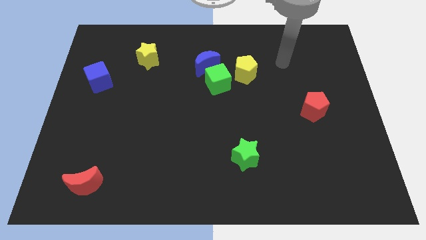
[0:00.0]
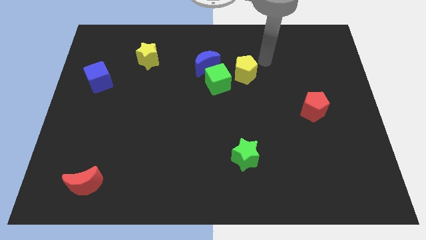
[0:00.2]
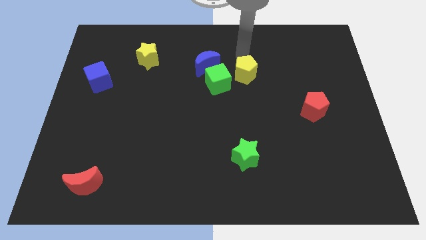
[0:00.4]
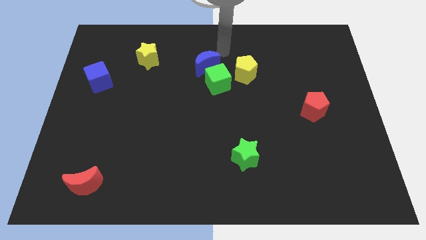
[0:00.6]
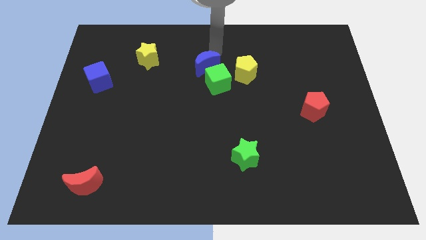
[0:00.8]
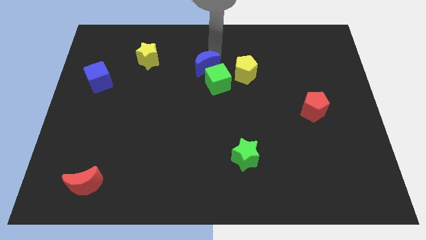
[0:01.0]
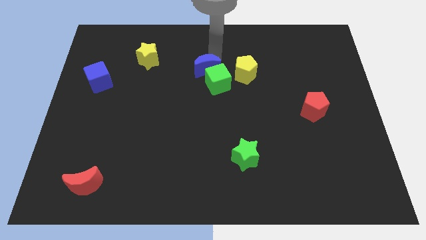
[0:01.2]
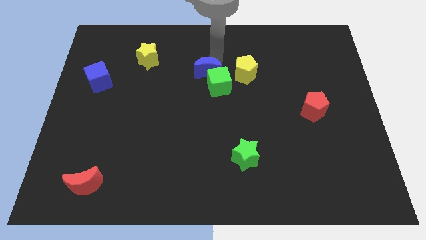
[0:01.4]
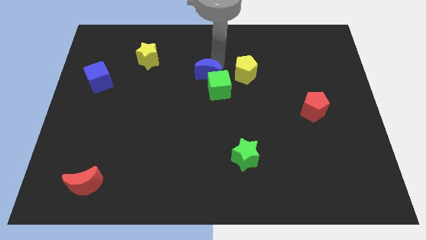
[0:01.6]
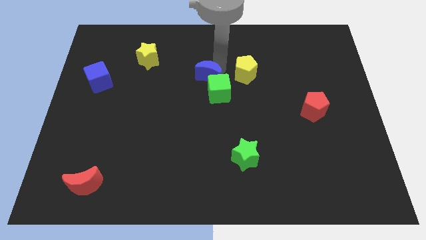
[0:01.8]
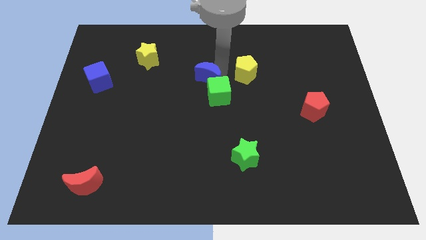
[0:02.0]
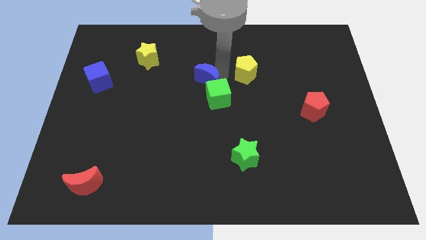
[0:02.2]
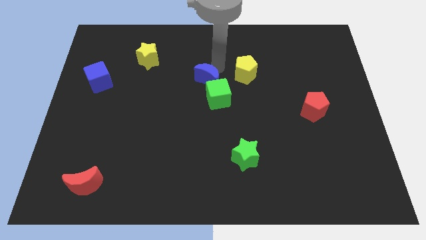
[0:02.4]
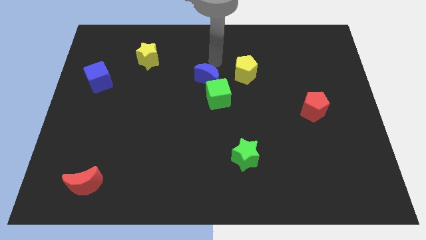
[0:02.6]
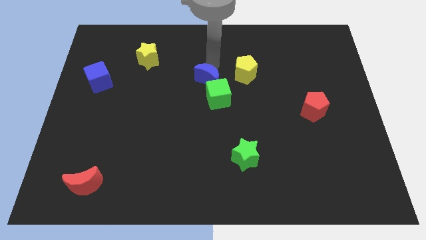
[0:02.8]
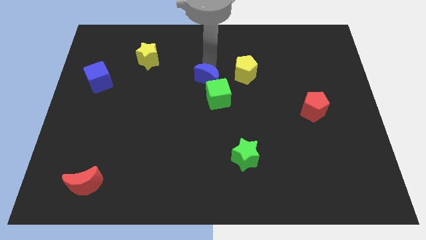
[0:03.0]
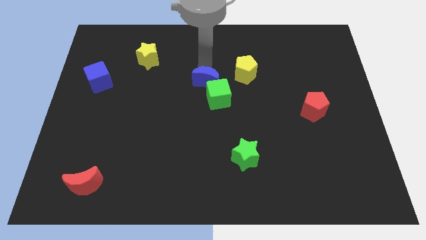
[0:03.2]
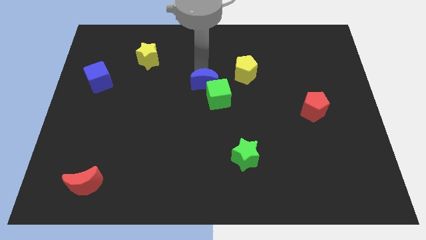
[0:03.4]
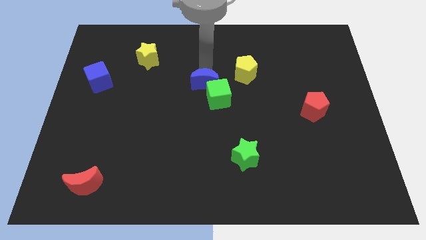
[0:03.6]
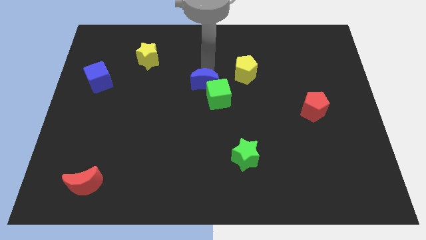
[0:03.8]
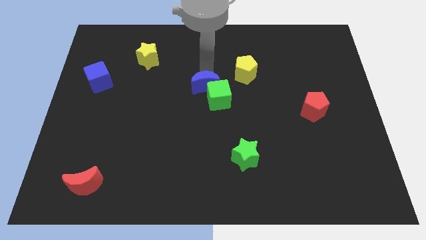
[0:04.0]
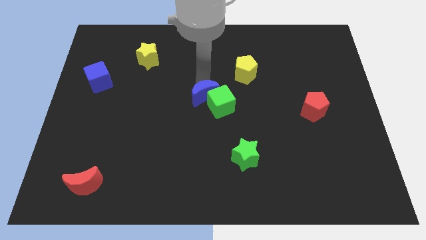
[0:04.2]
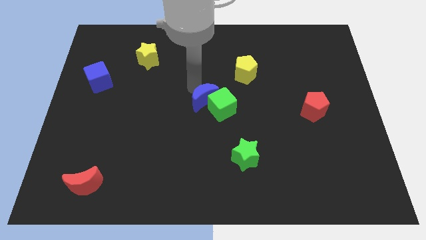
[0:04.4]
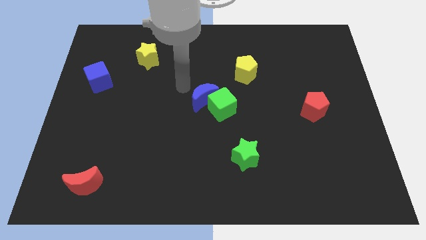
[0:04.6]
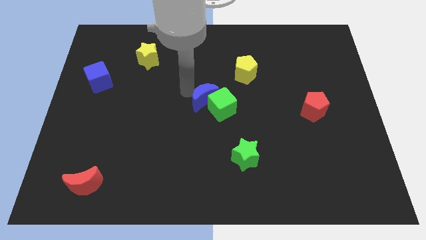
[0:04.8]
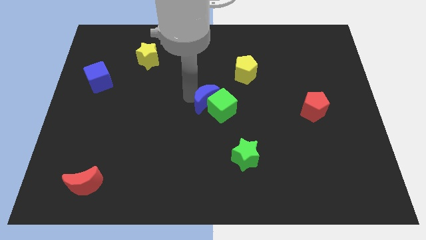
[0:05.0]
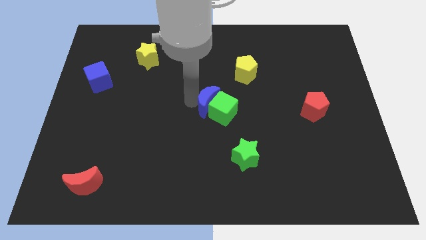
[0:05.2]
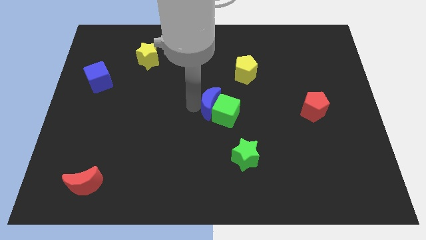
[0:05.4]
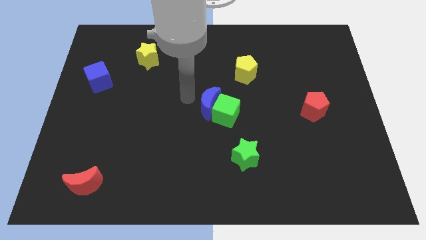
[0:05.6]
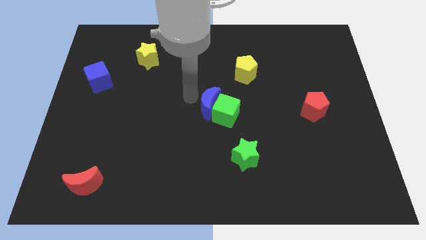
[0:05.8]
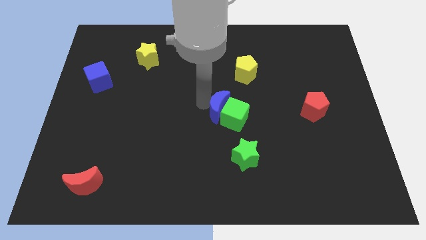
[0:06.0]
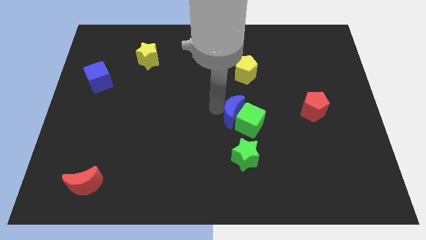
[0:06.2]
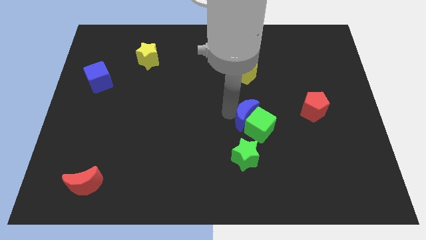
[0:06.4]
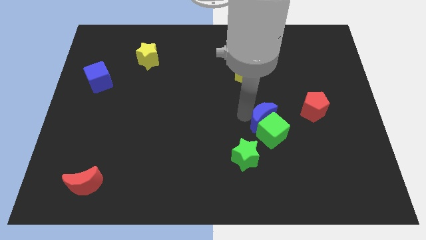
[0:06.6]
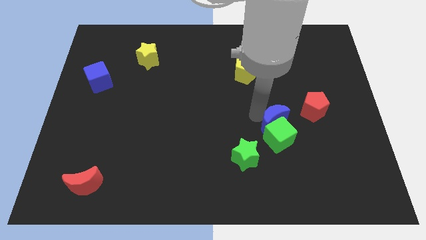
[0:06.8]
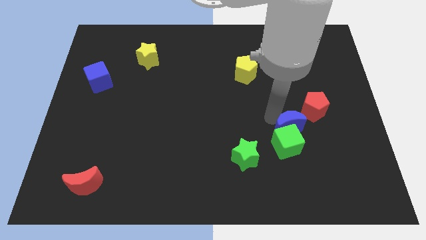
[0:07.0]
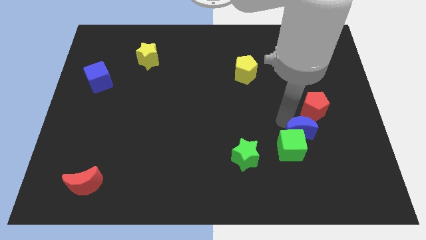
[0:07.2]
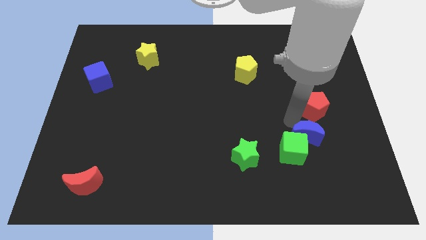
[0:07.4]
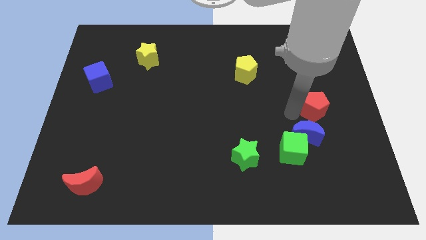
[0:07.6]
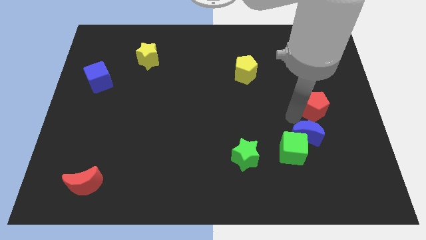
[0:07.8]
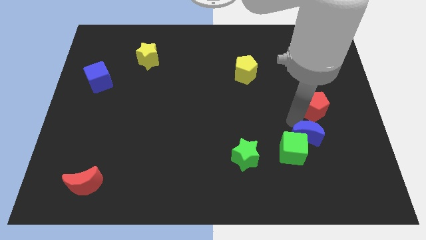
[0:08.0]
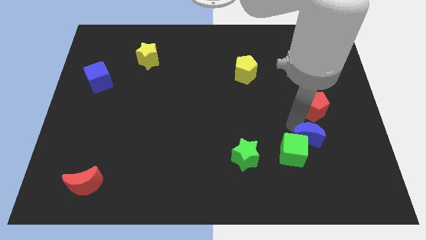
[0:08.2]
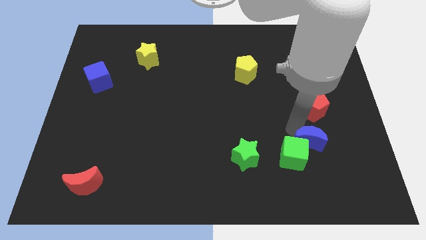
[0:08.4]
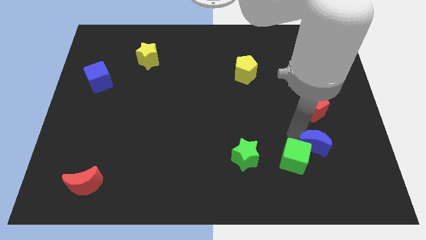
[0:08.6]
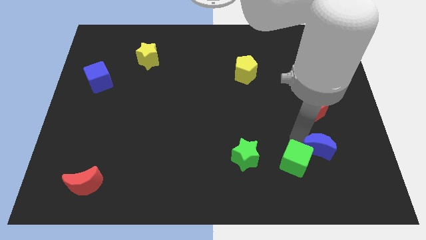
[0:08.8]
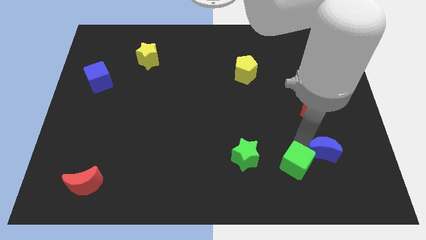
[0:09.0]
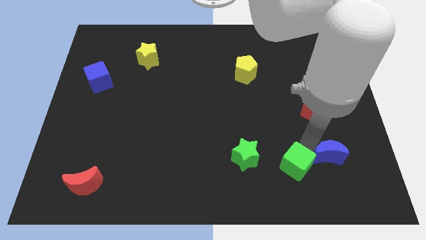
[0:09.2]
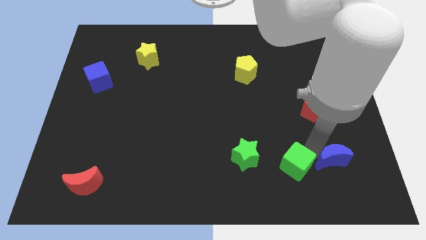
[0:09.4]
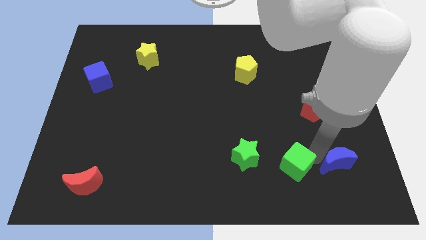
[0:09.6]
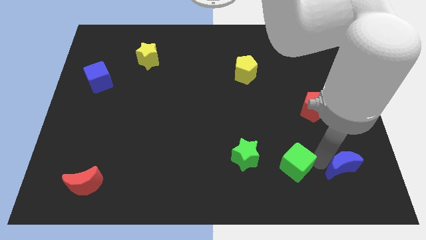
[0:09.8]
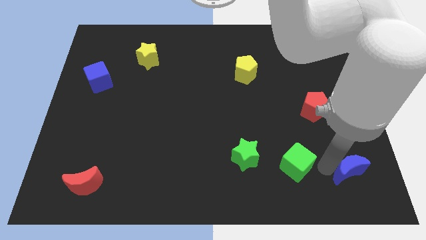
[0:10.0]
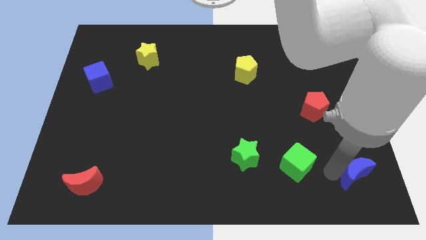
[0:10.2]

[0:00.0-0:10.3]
push the blue moon to the bottom right

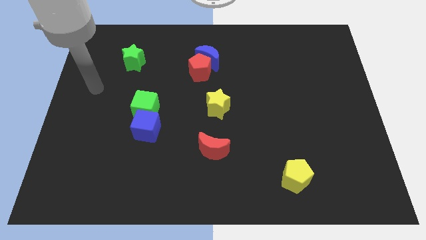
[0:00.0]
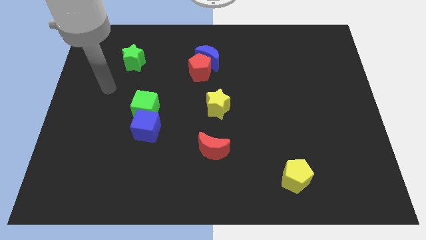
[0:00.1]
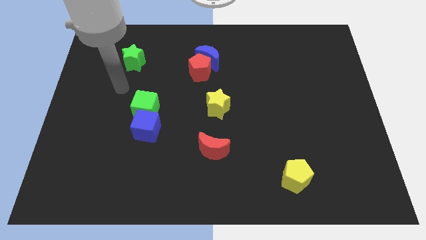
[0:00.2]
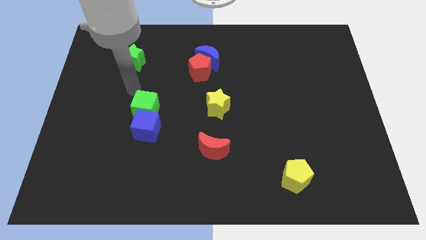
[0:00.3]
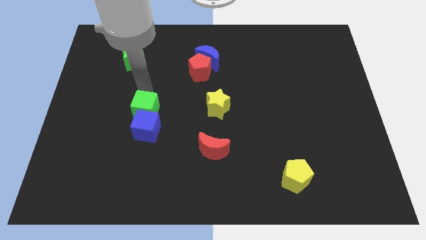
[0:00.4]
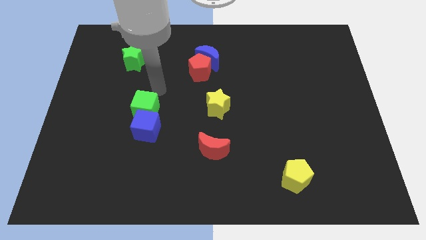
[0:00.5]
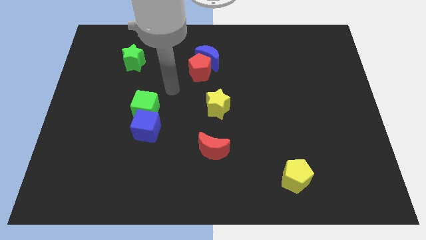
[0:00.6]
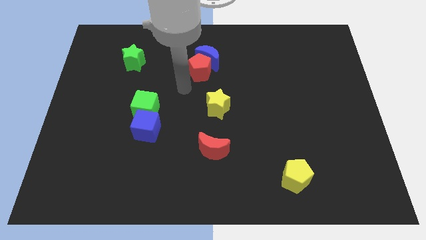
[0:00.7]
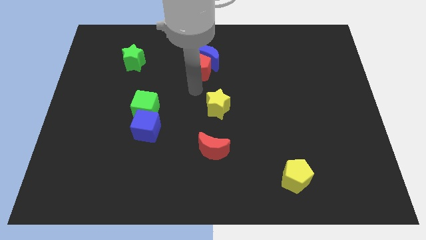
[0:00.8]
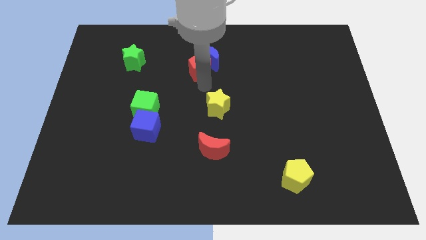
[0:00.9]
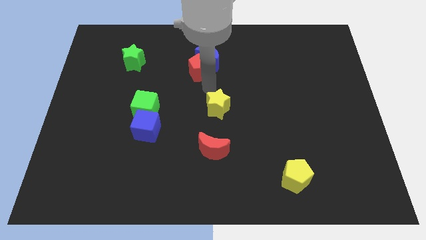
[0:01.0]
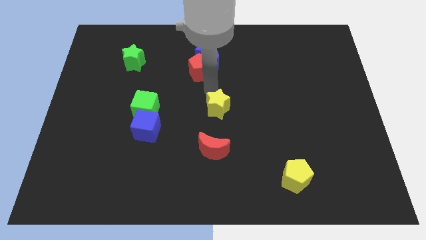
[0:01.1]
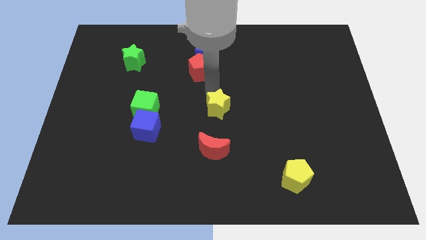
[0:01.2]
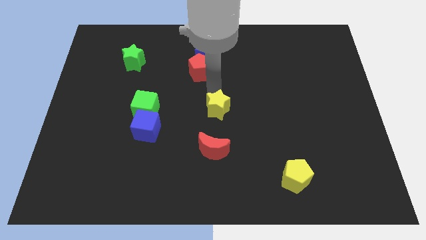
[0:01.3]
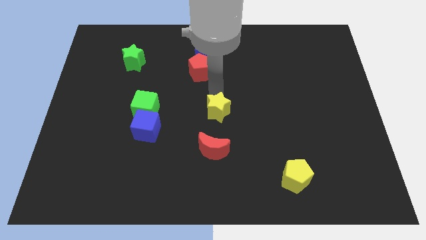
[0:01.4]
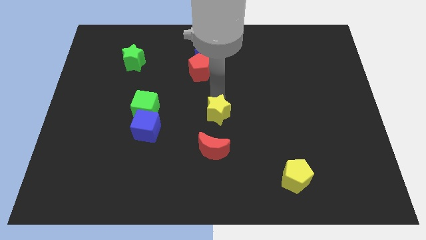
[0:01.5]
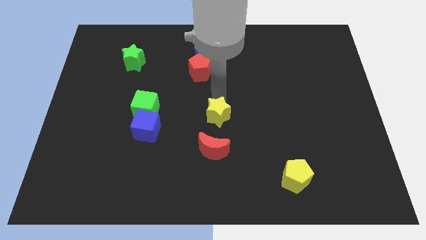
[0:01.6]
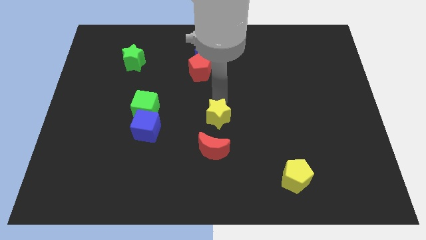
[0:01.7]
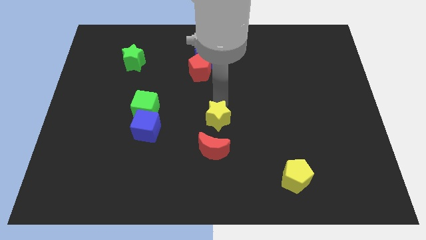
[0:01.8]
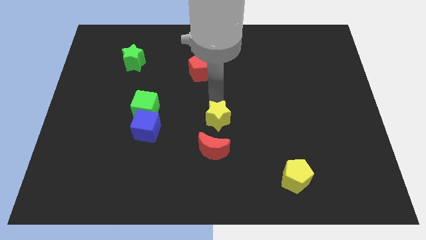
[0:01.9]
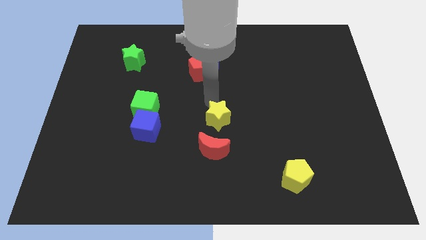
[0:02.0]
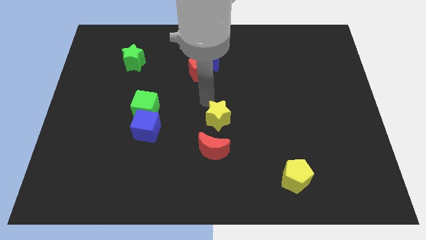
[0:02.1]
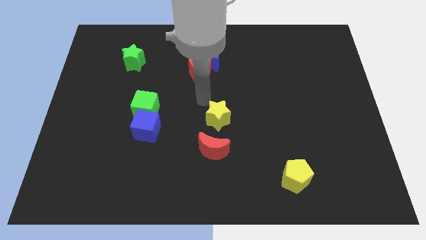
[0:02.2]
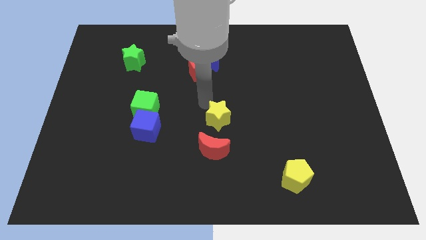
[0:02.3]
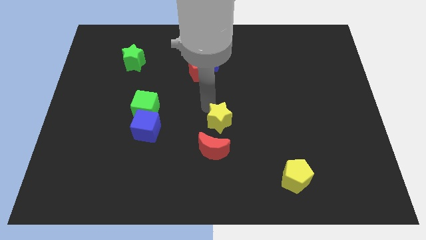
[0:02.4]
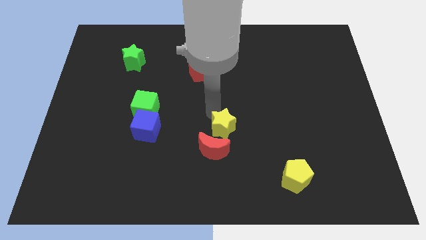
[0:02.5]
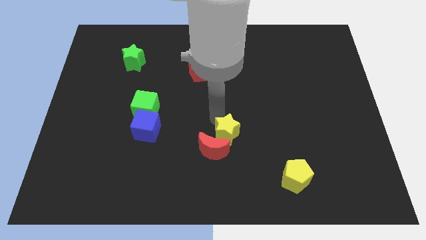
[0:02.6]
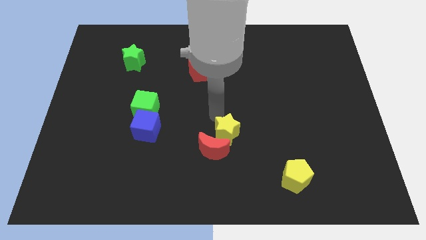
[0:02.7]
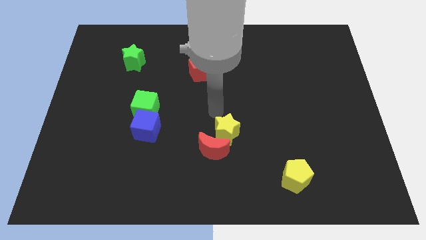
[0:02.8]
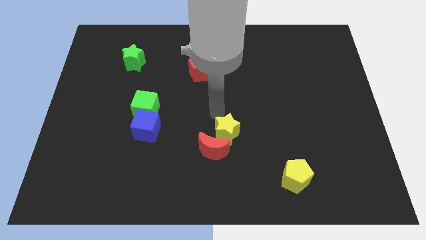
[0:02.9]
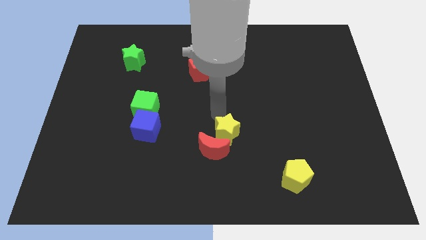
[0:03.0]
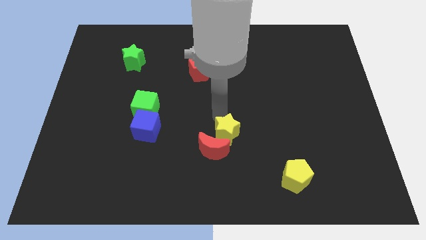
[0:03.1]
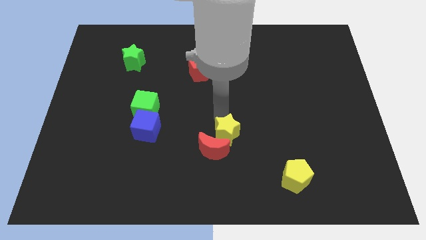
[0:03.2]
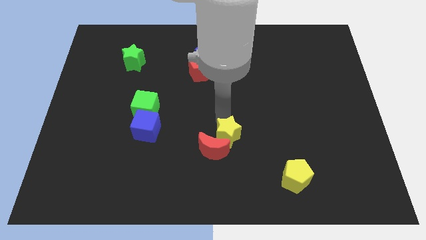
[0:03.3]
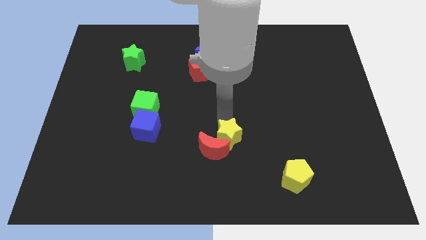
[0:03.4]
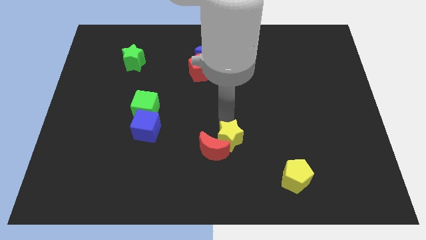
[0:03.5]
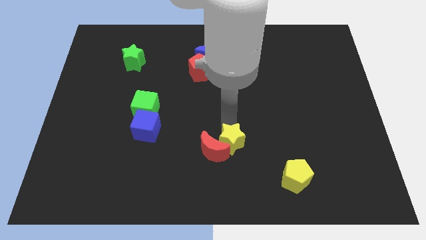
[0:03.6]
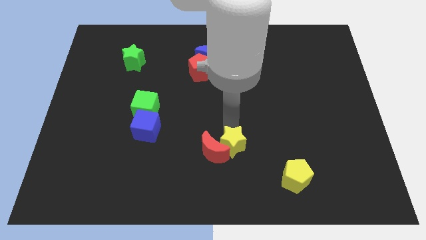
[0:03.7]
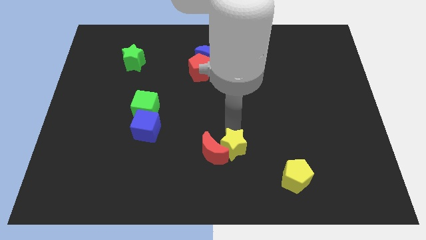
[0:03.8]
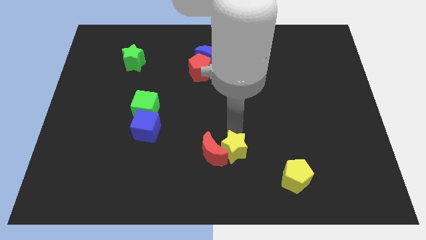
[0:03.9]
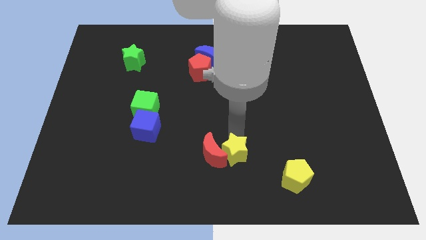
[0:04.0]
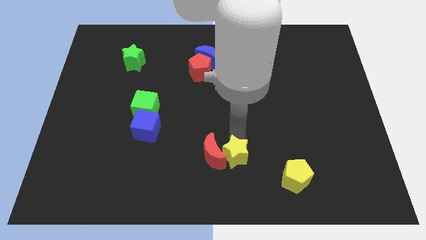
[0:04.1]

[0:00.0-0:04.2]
push the yellow star to the bottom
